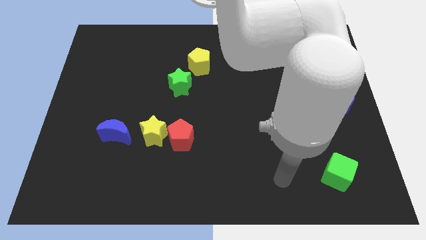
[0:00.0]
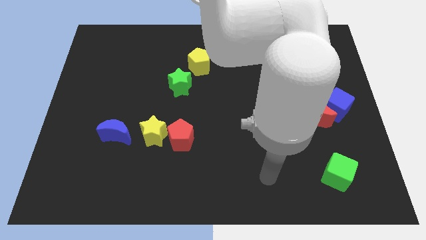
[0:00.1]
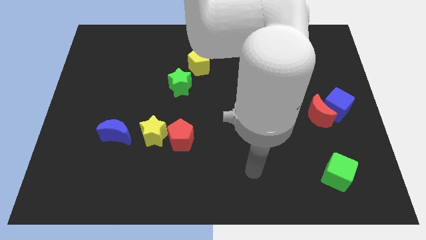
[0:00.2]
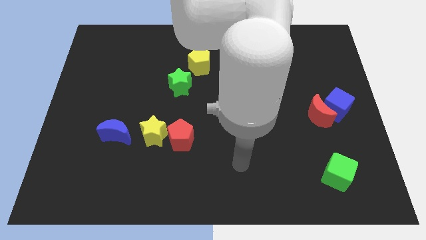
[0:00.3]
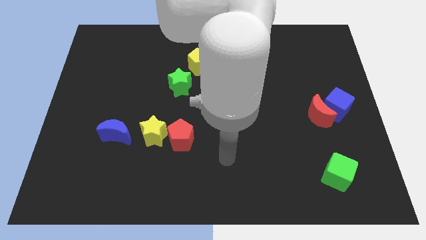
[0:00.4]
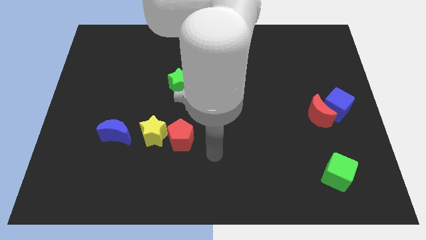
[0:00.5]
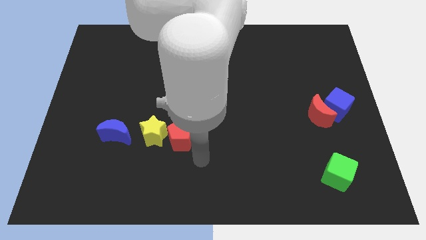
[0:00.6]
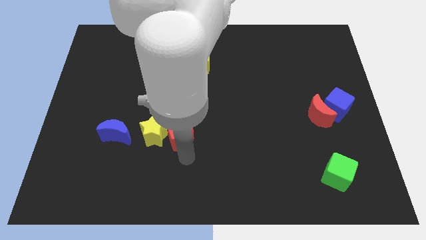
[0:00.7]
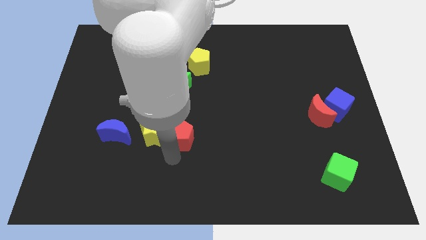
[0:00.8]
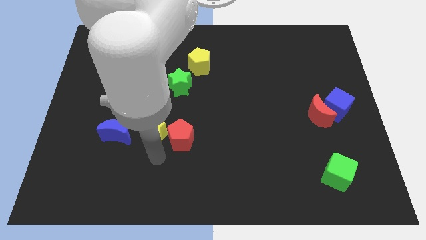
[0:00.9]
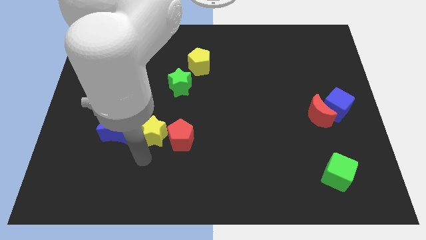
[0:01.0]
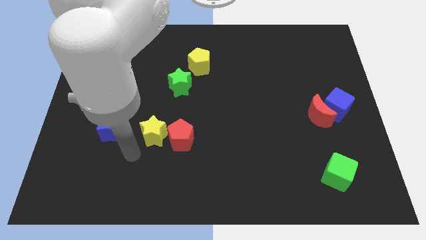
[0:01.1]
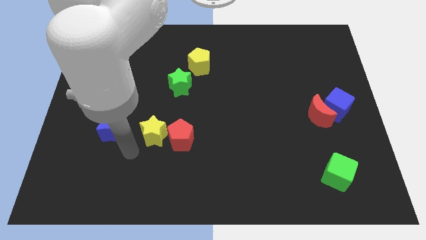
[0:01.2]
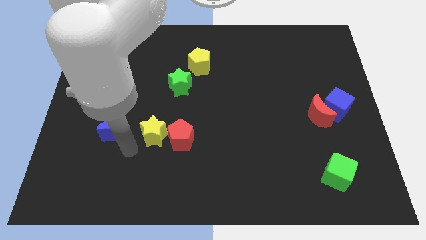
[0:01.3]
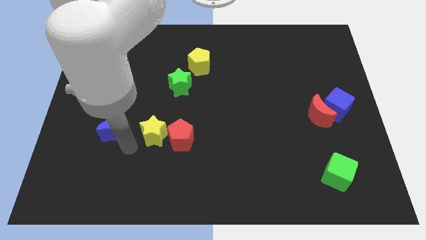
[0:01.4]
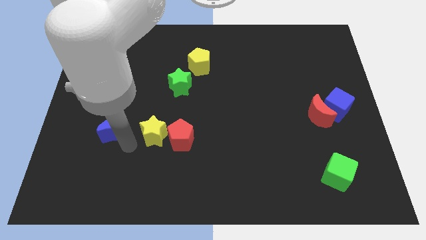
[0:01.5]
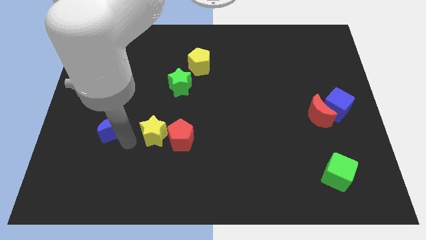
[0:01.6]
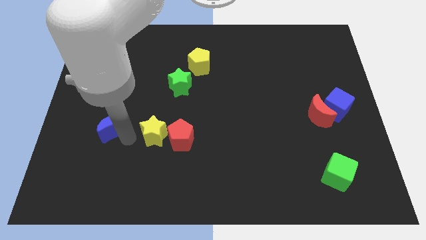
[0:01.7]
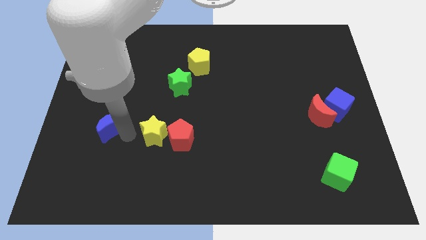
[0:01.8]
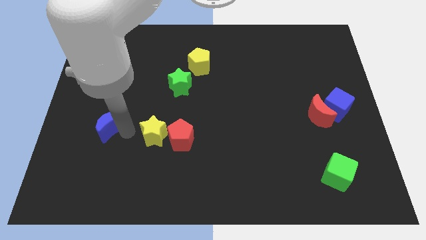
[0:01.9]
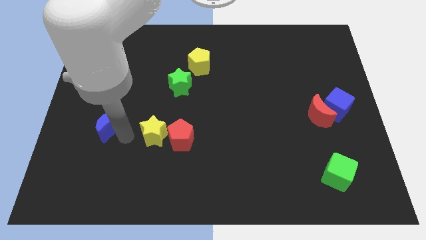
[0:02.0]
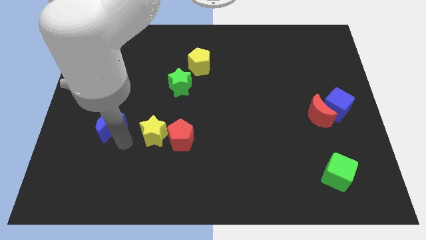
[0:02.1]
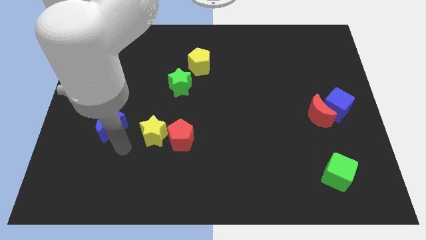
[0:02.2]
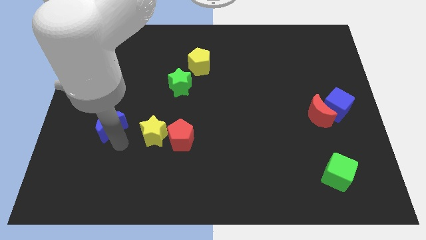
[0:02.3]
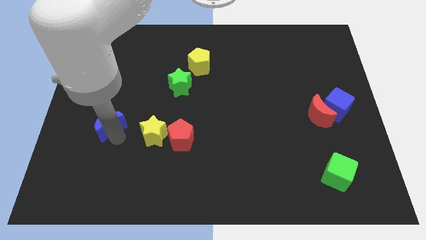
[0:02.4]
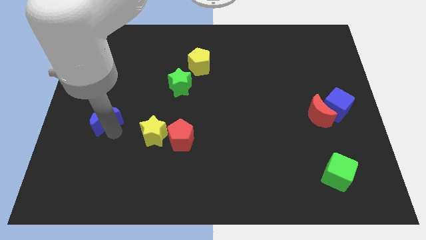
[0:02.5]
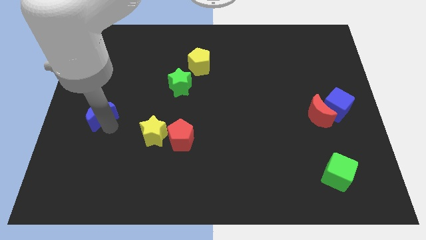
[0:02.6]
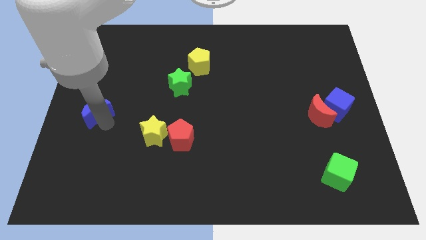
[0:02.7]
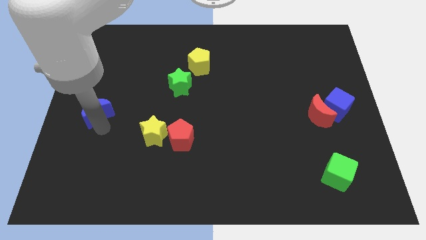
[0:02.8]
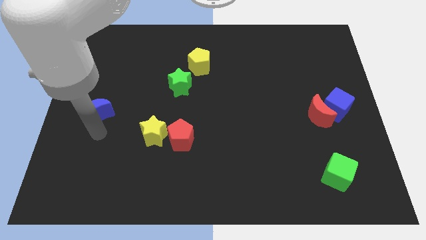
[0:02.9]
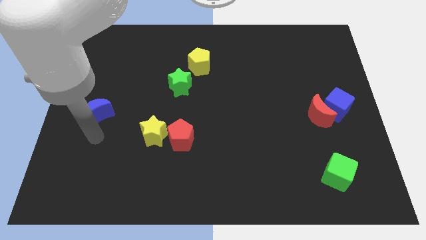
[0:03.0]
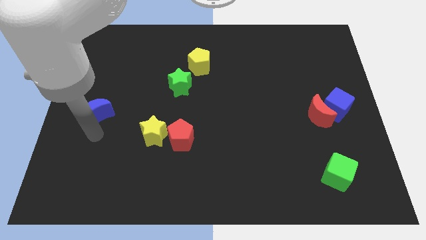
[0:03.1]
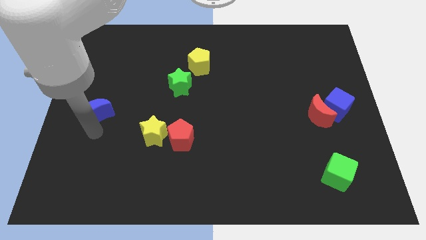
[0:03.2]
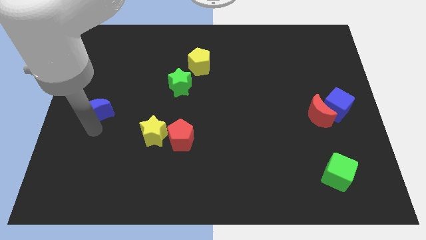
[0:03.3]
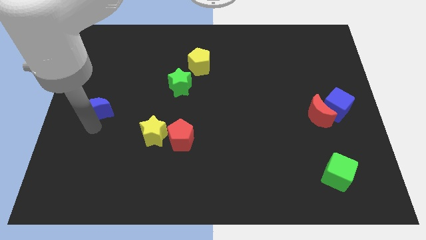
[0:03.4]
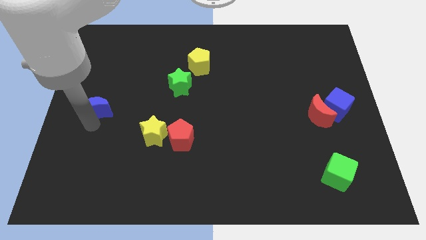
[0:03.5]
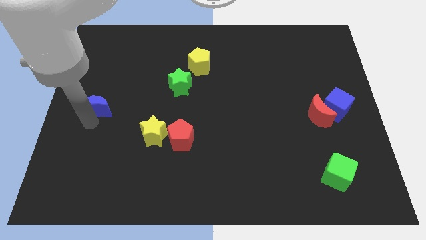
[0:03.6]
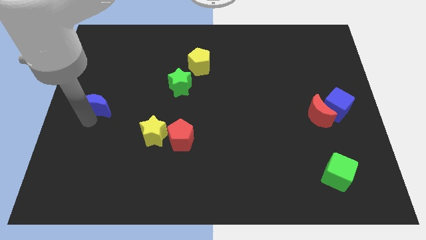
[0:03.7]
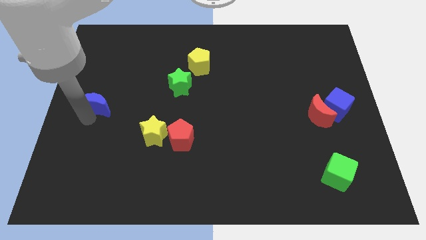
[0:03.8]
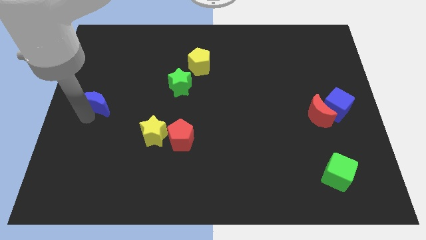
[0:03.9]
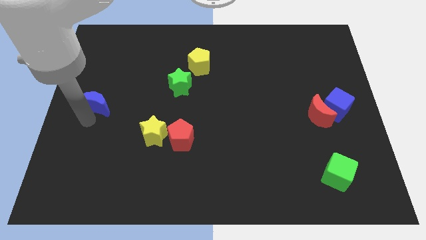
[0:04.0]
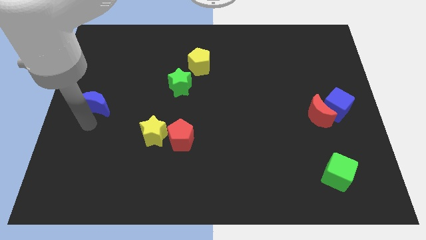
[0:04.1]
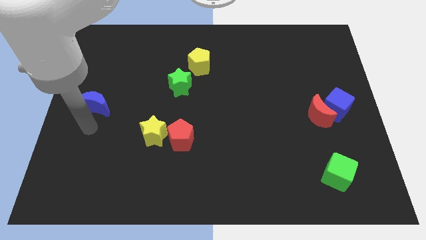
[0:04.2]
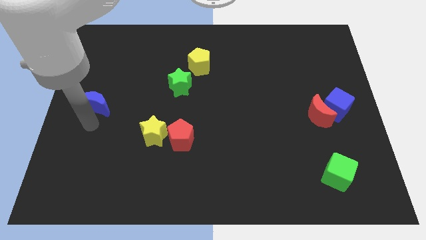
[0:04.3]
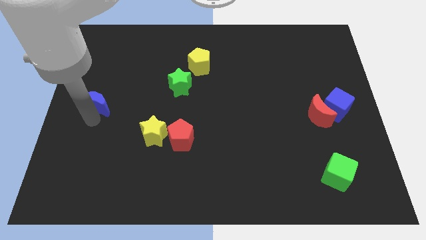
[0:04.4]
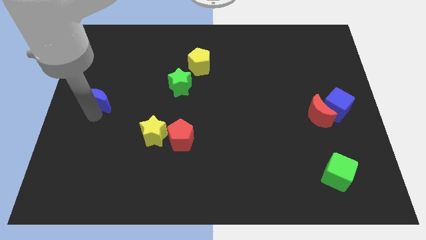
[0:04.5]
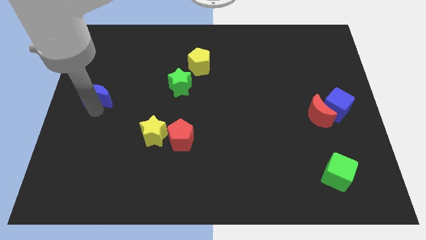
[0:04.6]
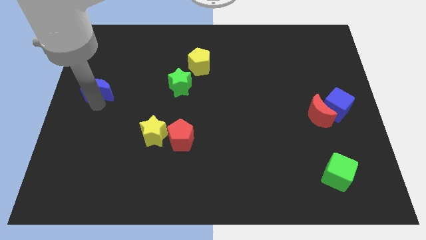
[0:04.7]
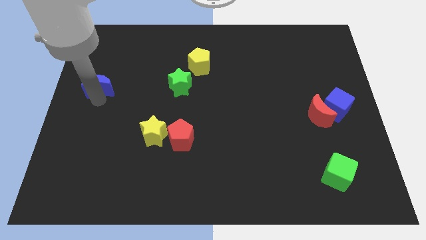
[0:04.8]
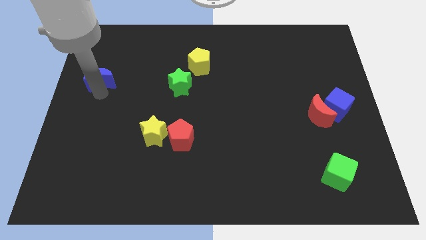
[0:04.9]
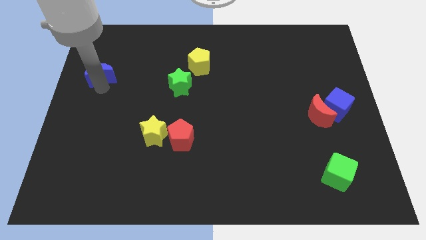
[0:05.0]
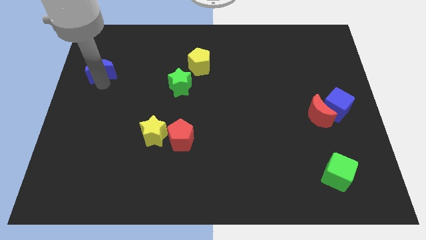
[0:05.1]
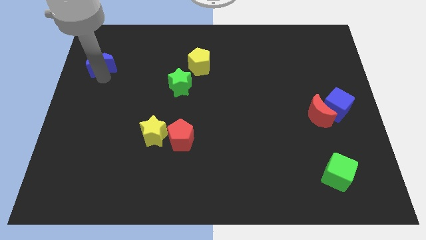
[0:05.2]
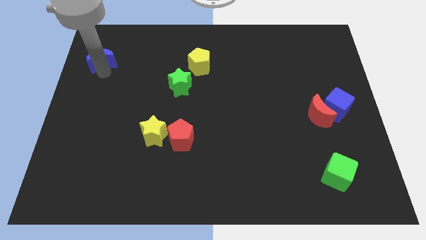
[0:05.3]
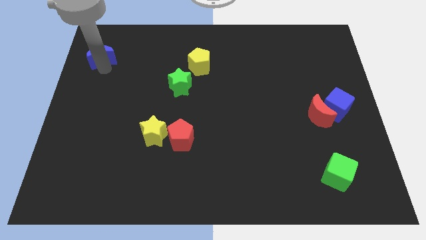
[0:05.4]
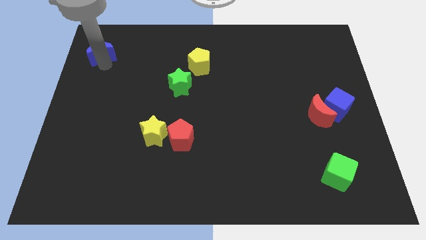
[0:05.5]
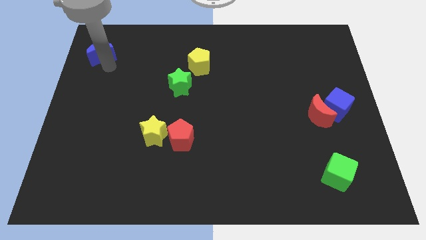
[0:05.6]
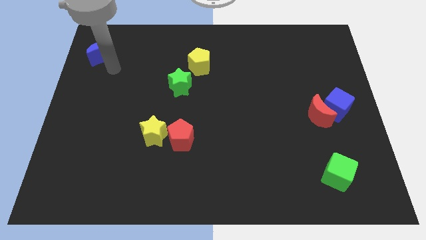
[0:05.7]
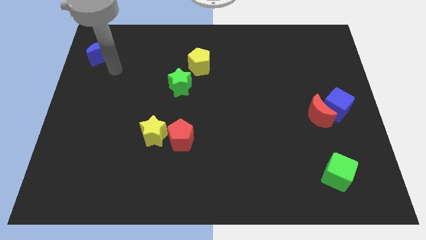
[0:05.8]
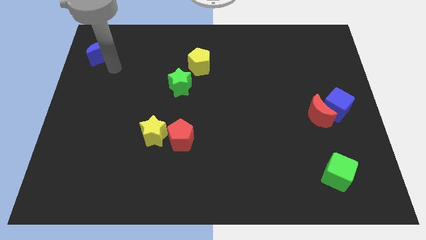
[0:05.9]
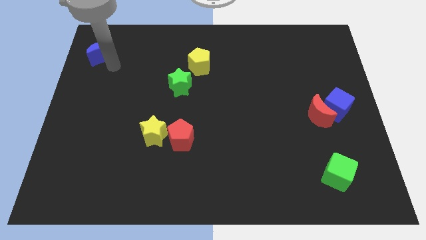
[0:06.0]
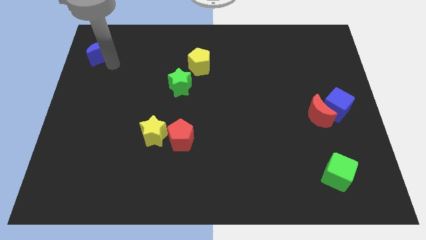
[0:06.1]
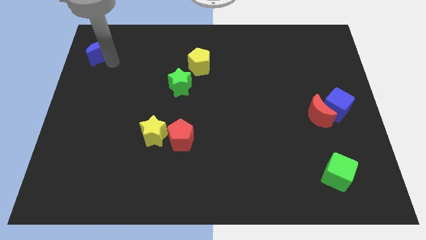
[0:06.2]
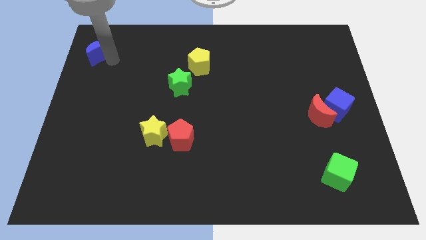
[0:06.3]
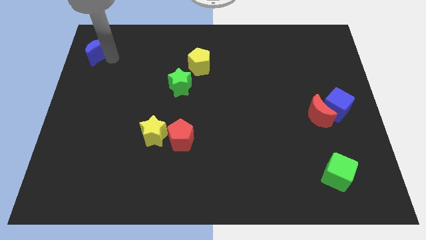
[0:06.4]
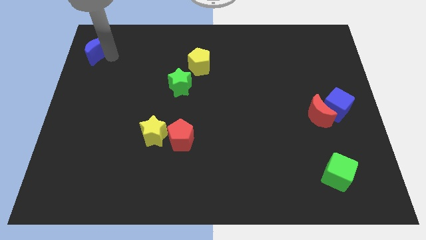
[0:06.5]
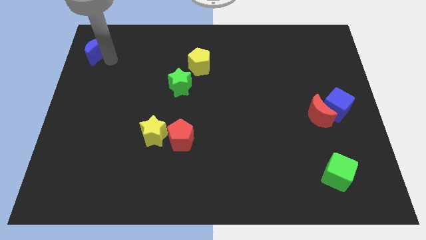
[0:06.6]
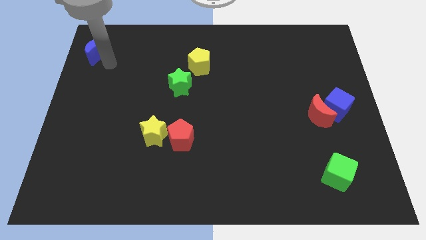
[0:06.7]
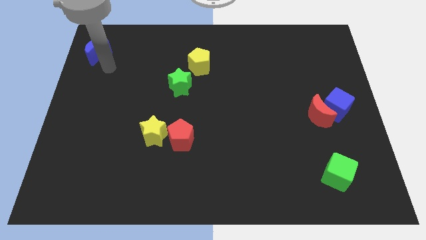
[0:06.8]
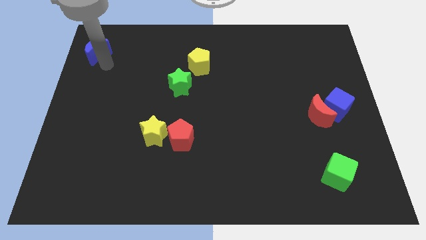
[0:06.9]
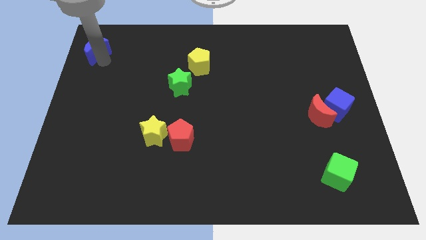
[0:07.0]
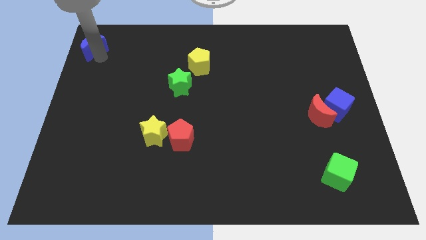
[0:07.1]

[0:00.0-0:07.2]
put the blue moon to the top left
